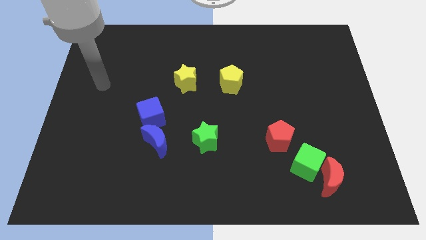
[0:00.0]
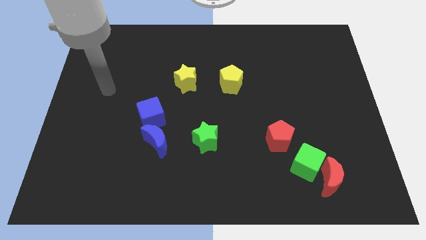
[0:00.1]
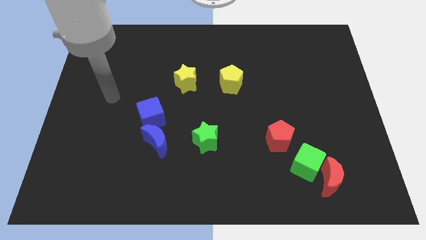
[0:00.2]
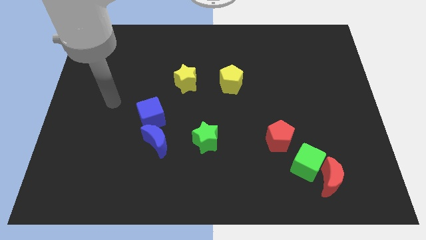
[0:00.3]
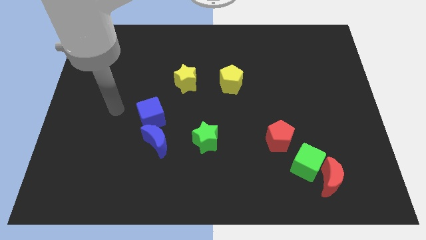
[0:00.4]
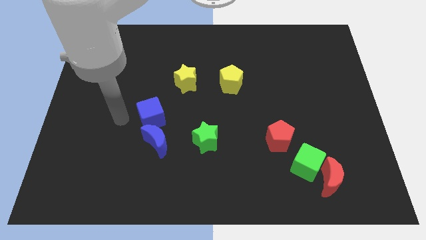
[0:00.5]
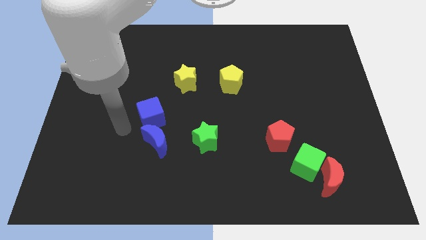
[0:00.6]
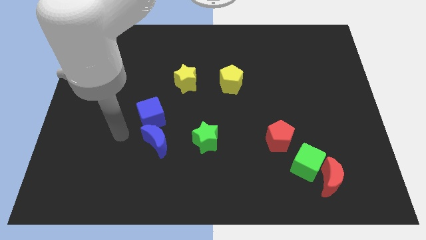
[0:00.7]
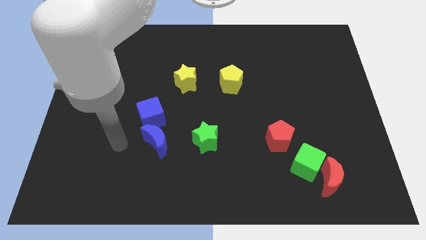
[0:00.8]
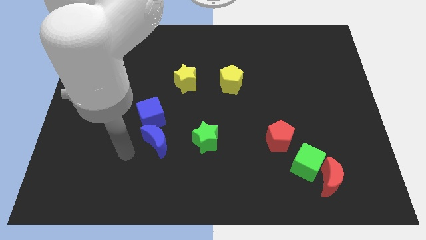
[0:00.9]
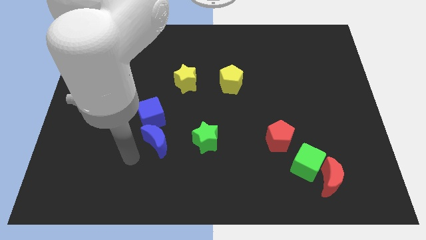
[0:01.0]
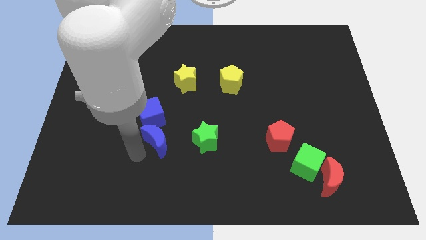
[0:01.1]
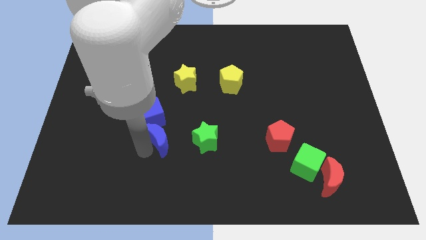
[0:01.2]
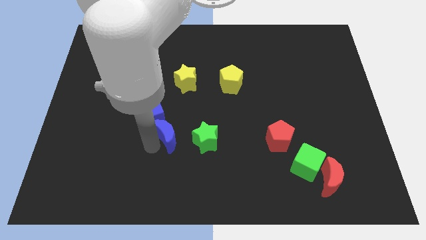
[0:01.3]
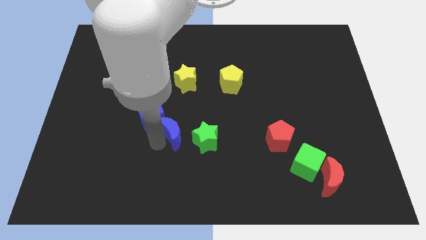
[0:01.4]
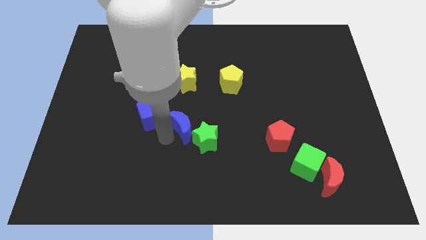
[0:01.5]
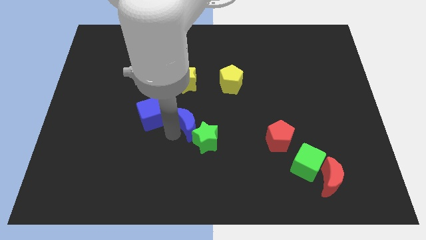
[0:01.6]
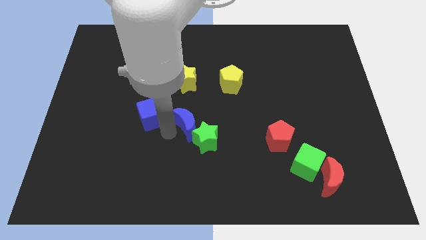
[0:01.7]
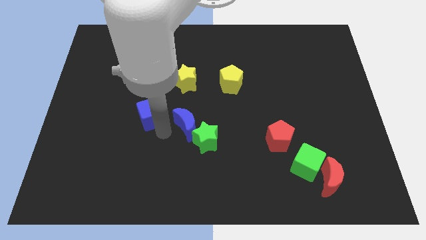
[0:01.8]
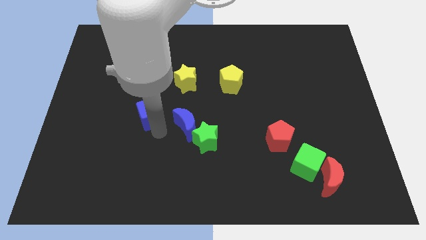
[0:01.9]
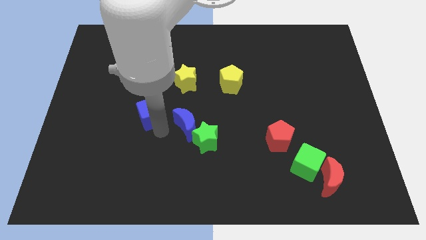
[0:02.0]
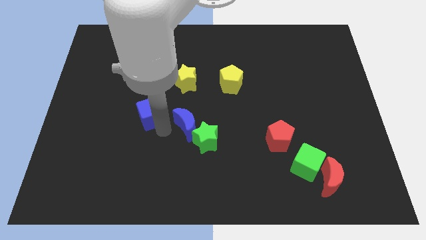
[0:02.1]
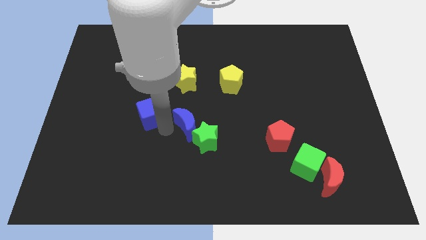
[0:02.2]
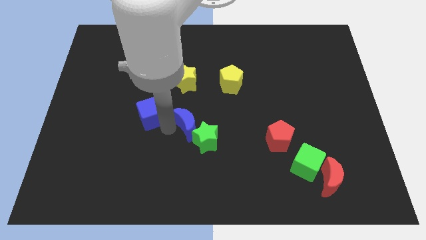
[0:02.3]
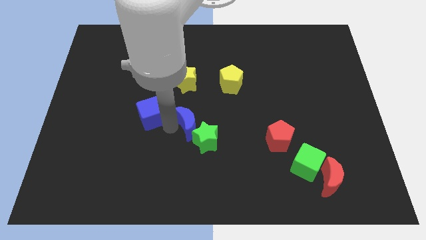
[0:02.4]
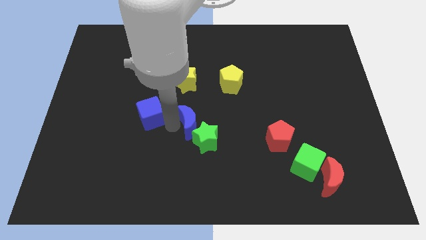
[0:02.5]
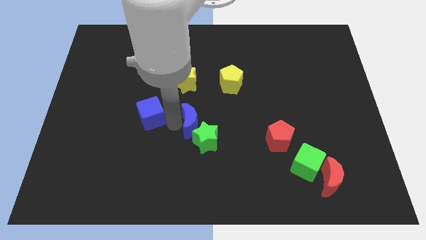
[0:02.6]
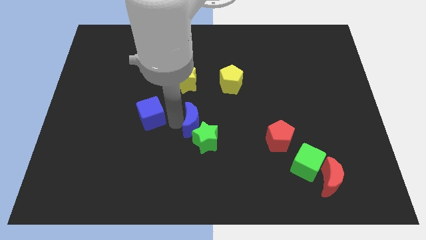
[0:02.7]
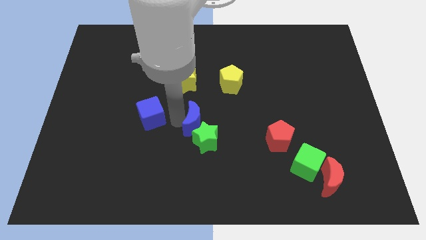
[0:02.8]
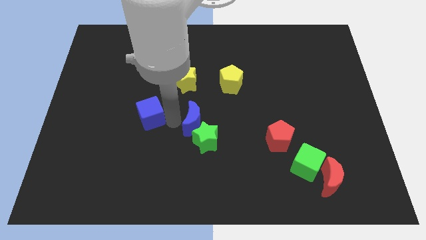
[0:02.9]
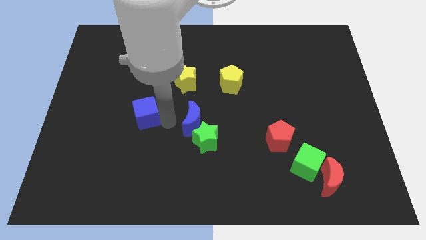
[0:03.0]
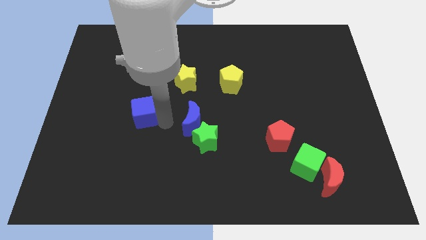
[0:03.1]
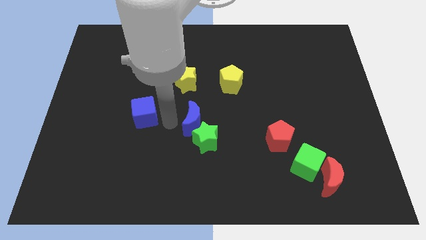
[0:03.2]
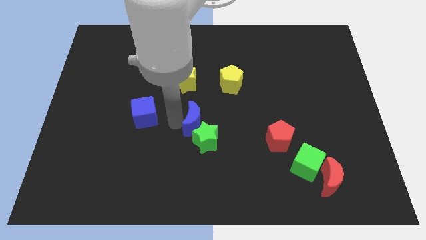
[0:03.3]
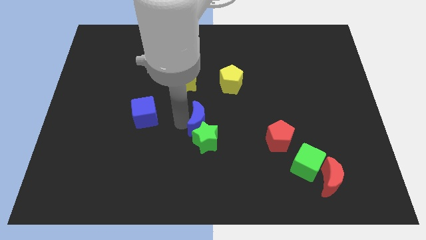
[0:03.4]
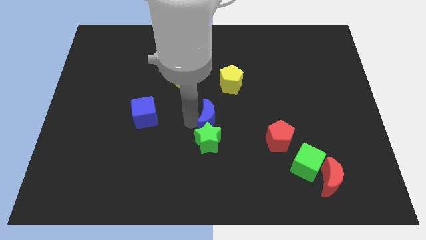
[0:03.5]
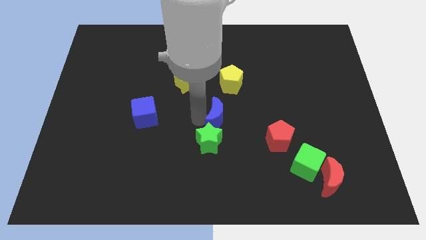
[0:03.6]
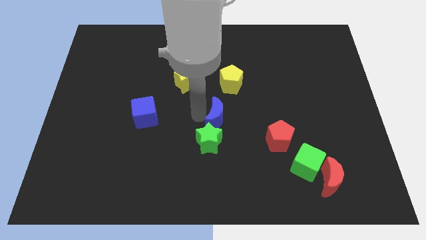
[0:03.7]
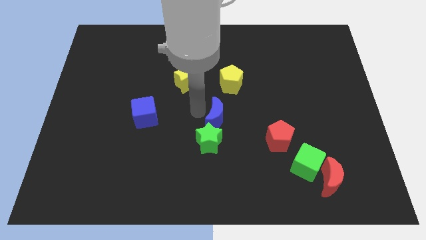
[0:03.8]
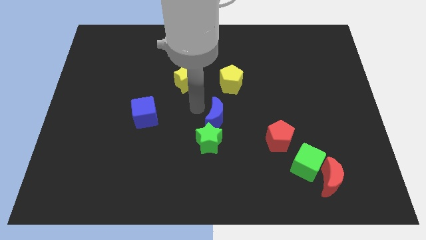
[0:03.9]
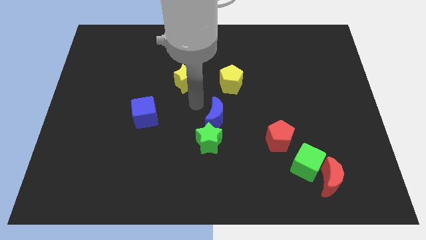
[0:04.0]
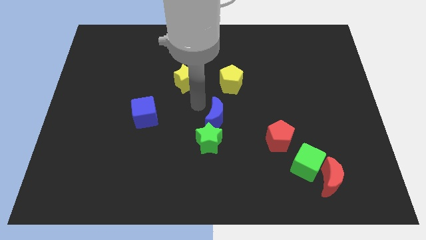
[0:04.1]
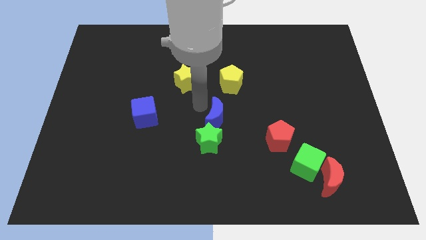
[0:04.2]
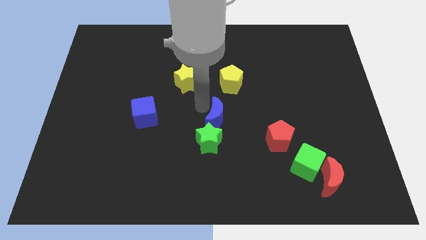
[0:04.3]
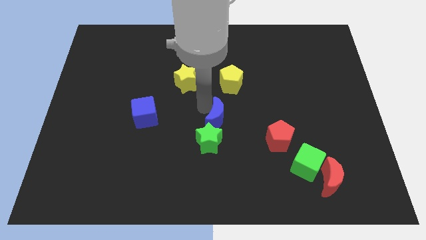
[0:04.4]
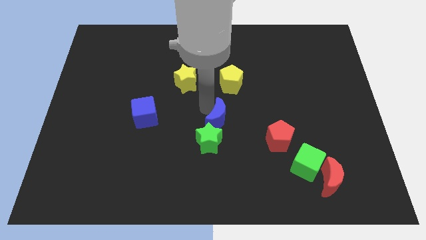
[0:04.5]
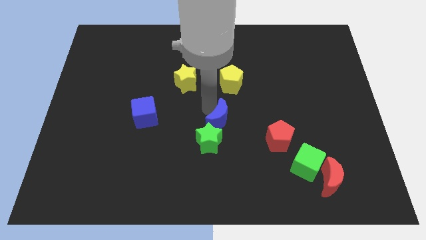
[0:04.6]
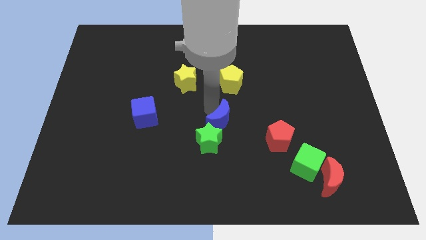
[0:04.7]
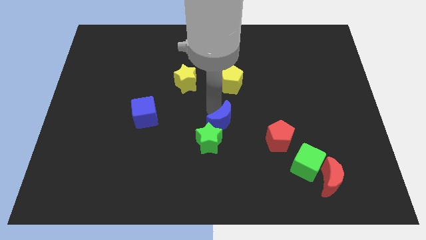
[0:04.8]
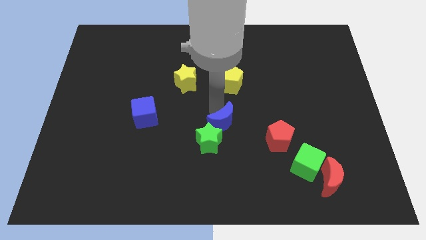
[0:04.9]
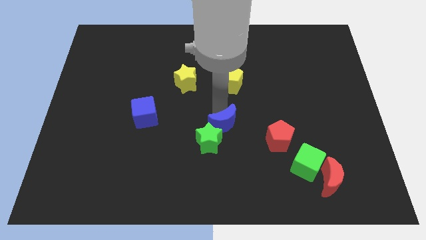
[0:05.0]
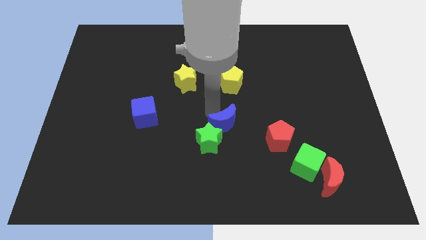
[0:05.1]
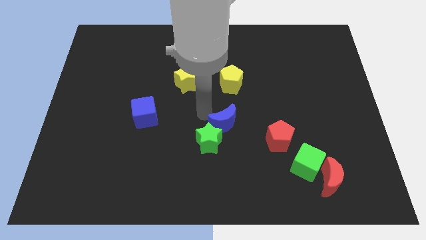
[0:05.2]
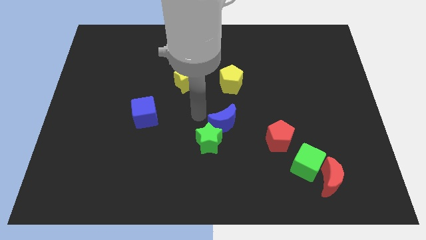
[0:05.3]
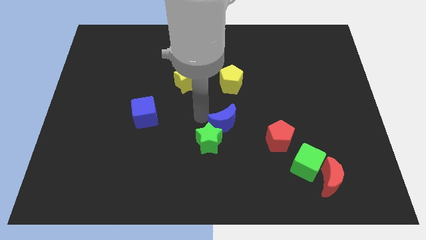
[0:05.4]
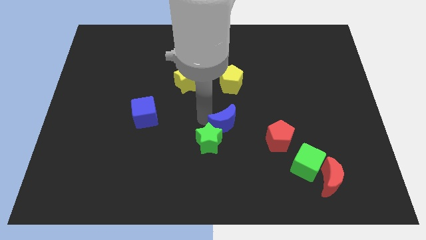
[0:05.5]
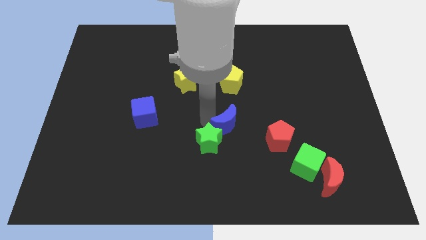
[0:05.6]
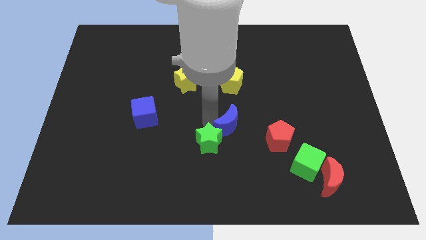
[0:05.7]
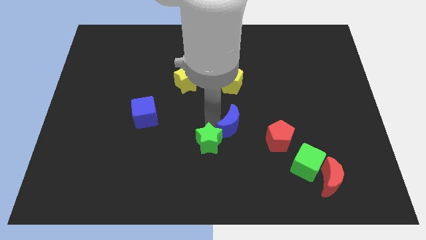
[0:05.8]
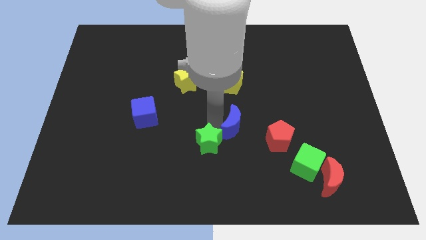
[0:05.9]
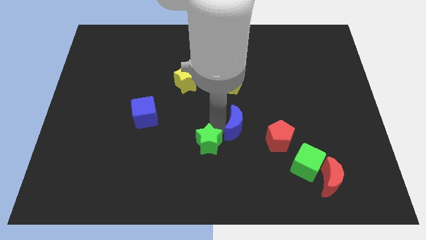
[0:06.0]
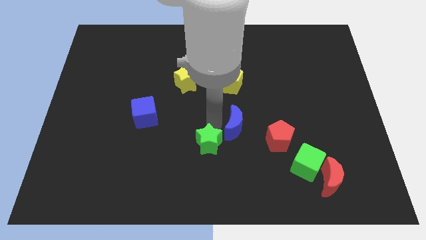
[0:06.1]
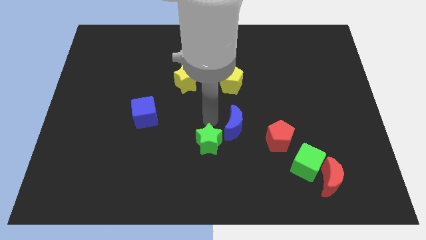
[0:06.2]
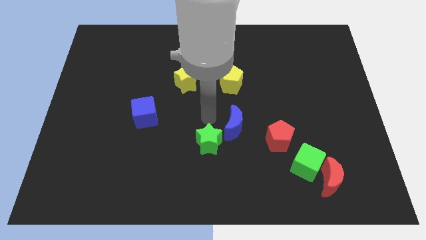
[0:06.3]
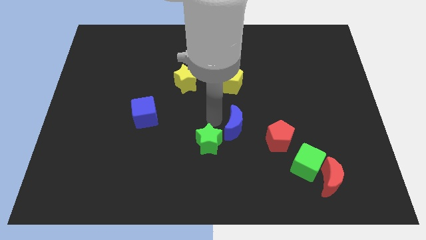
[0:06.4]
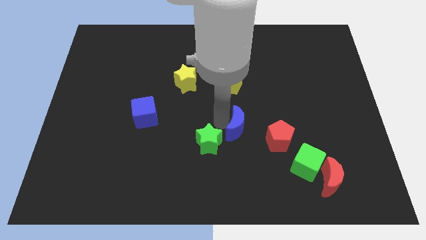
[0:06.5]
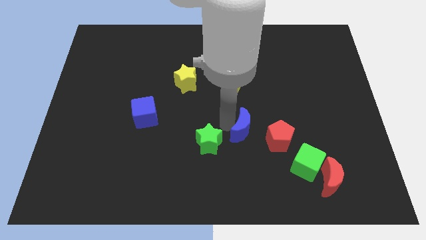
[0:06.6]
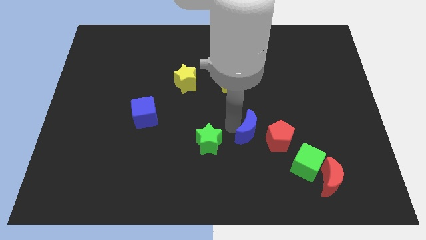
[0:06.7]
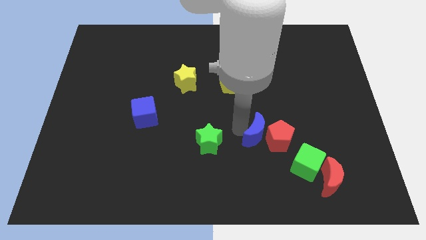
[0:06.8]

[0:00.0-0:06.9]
move the blue moon towards the red pentagon
